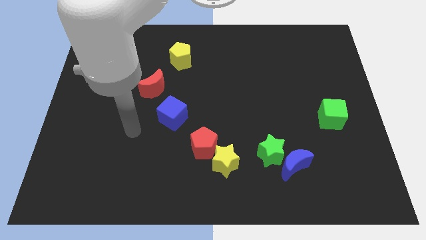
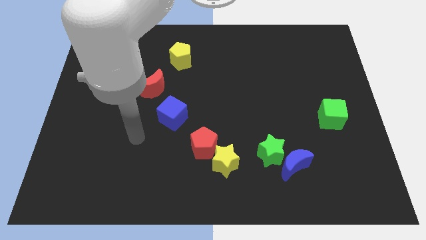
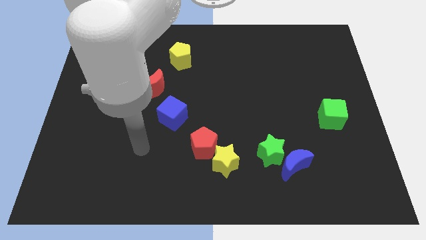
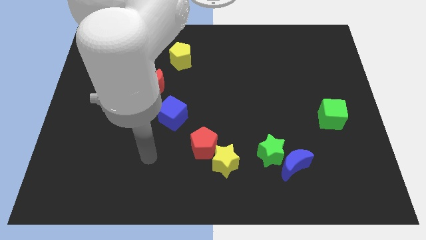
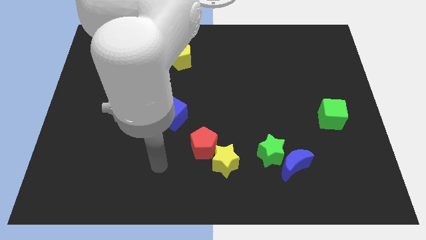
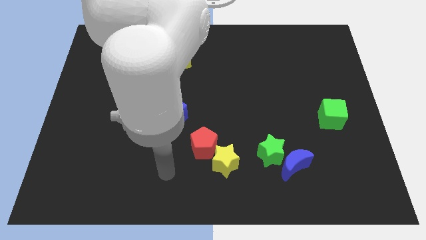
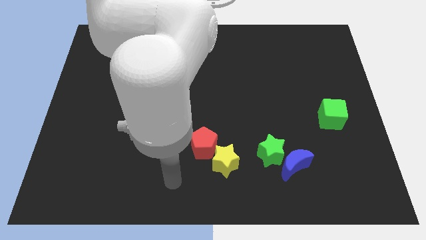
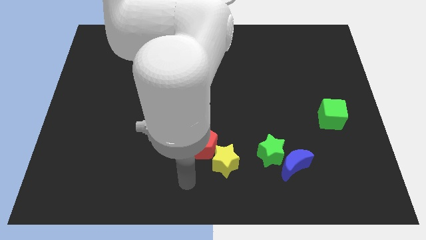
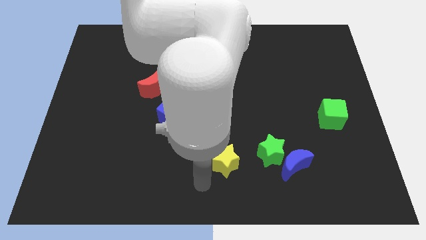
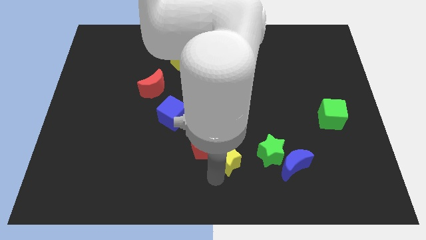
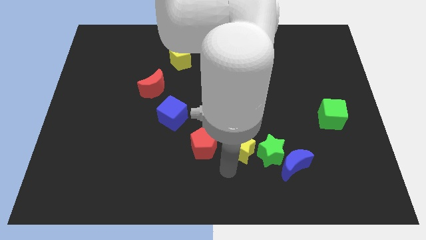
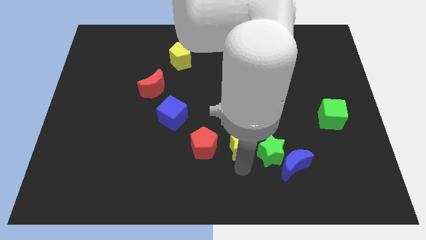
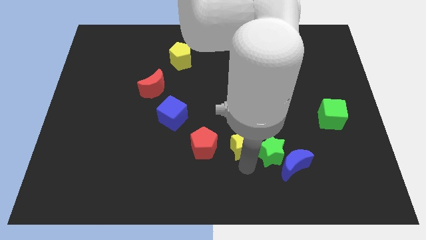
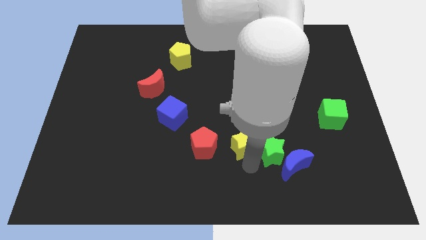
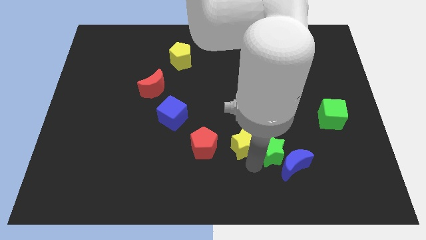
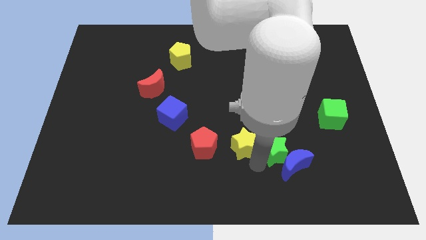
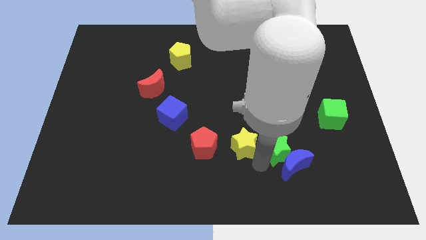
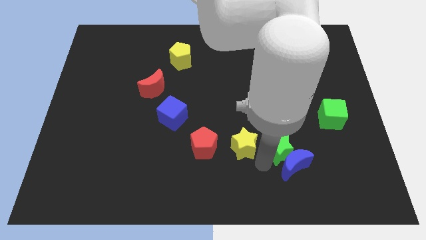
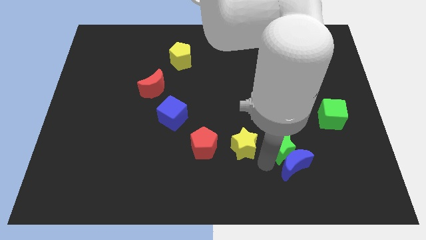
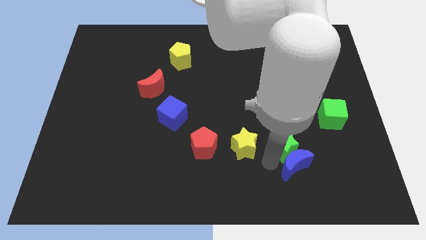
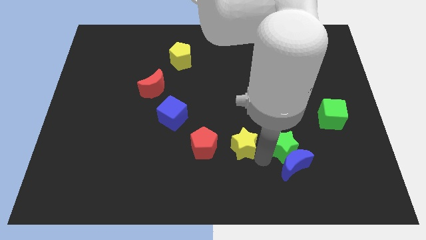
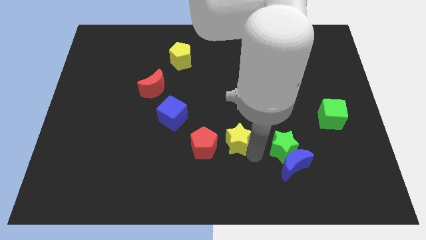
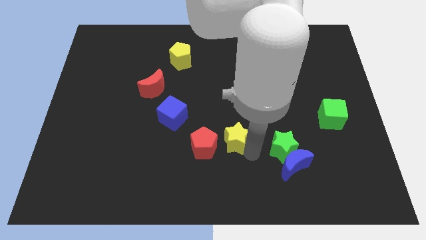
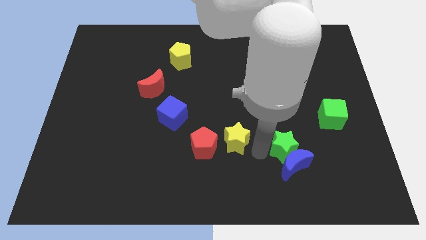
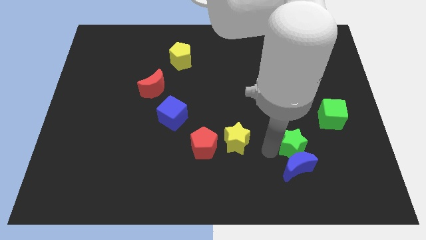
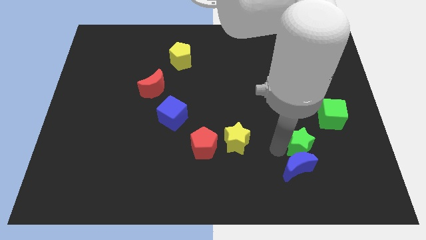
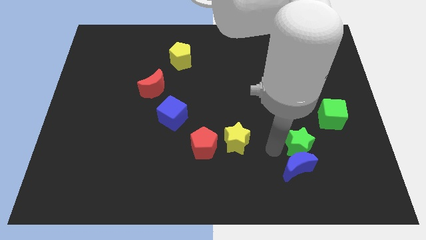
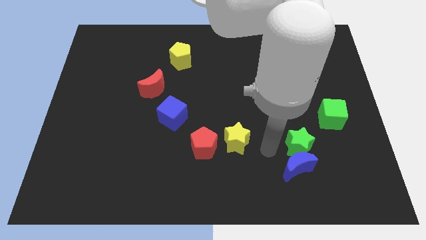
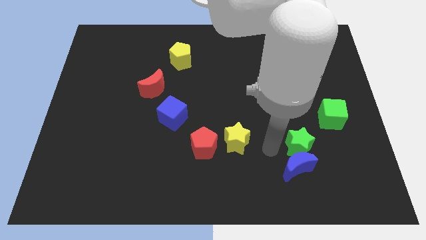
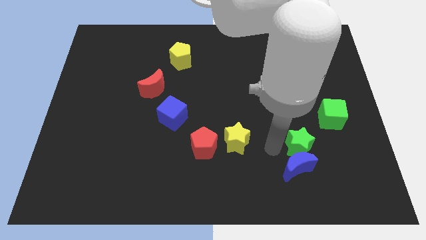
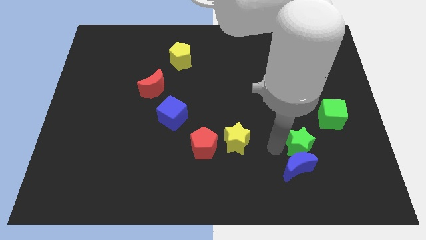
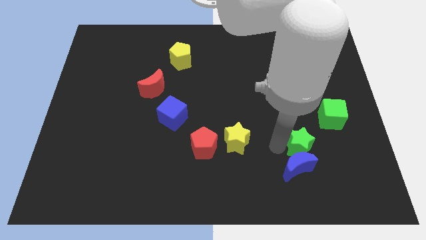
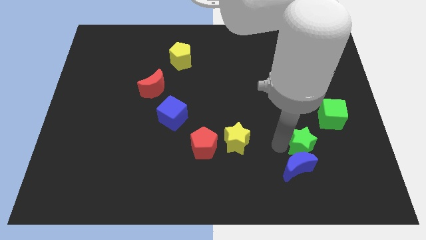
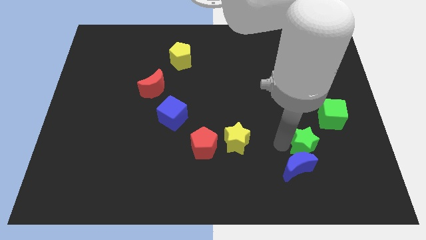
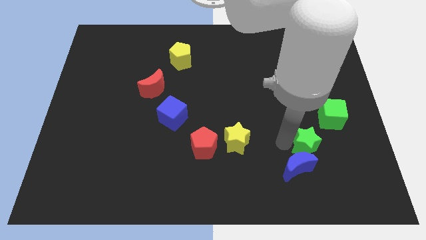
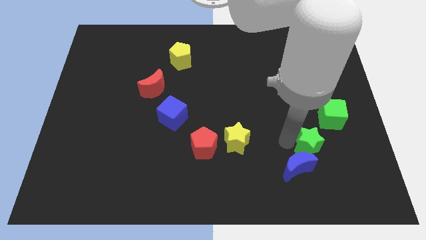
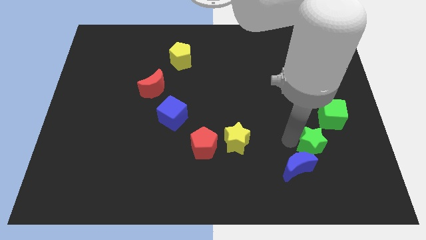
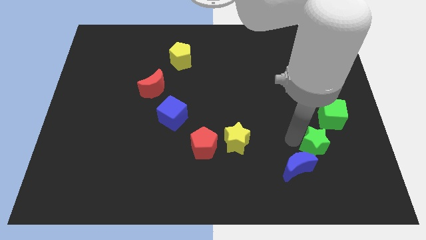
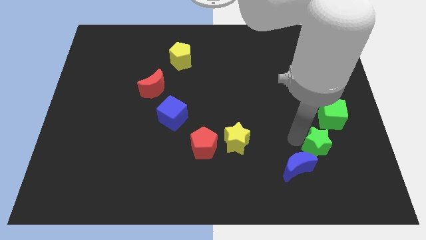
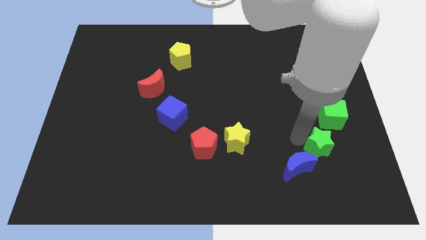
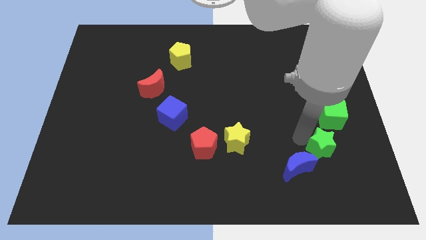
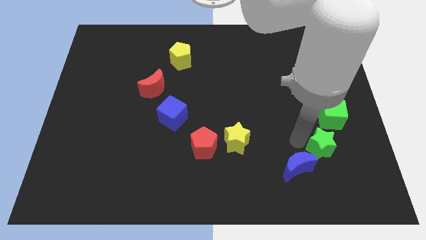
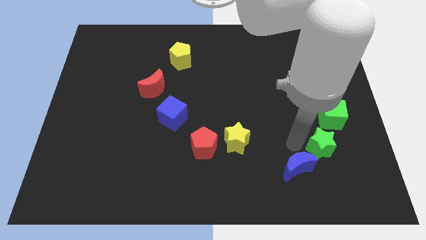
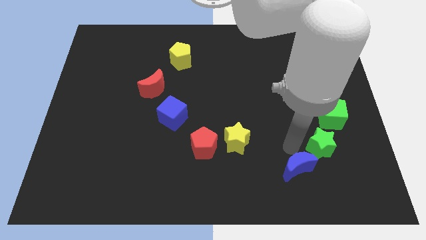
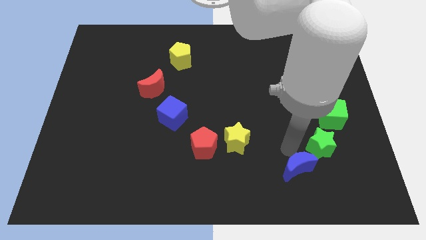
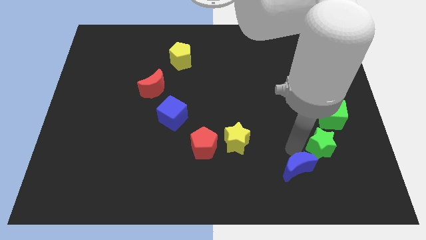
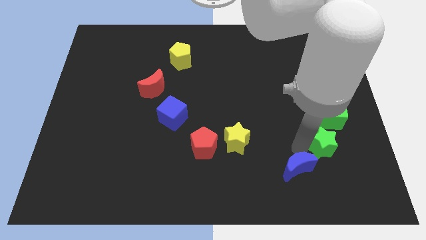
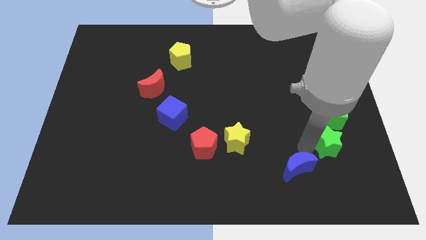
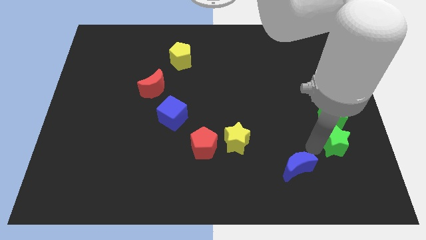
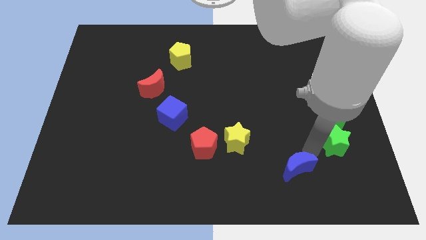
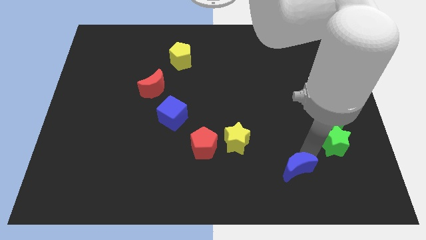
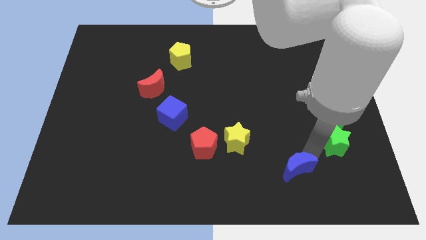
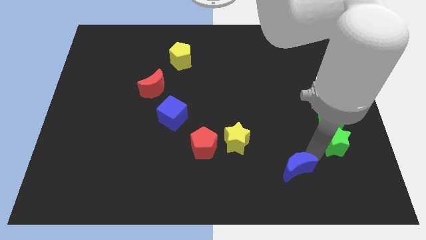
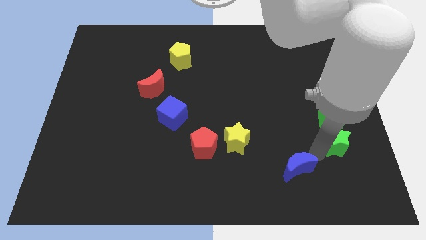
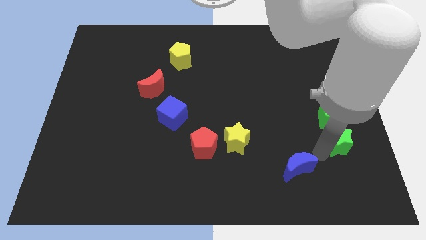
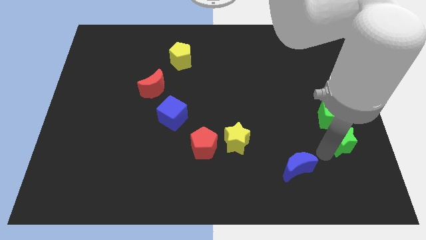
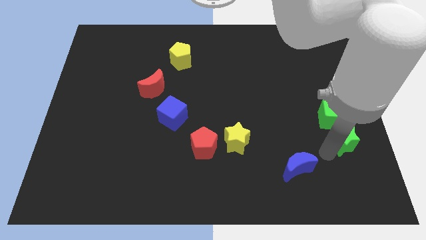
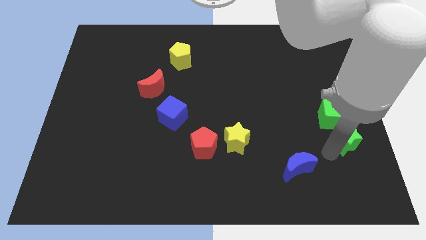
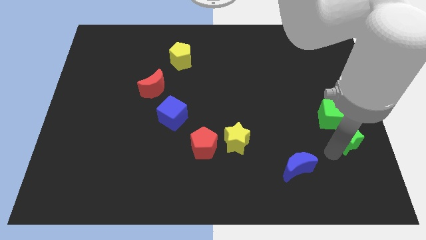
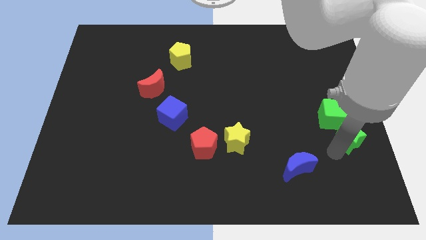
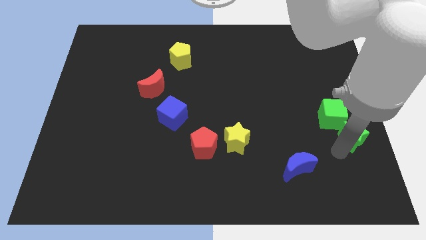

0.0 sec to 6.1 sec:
move the green star to the right side of the board

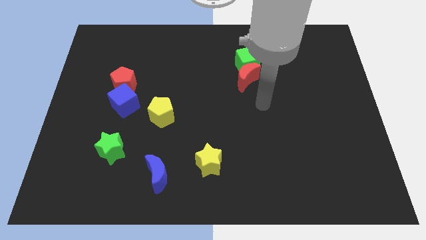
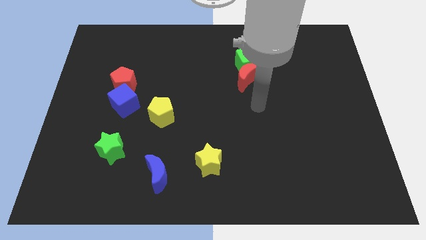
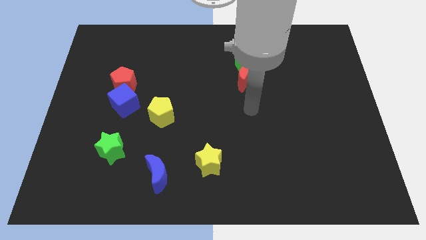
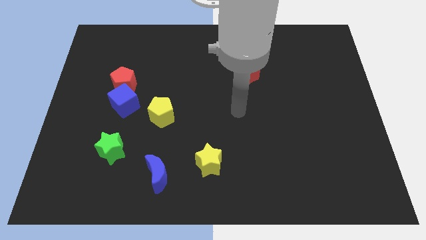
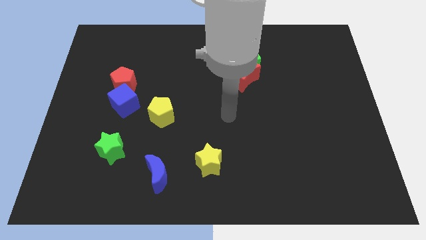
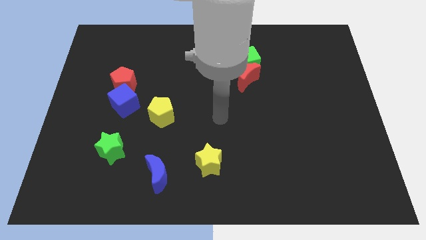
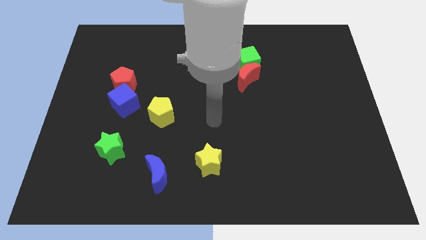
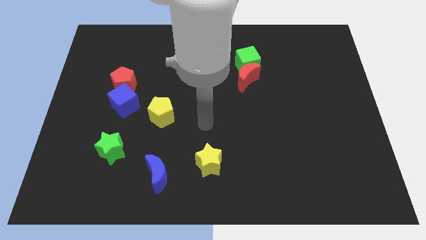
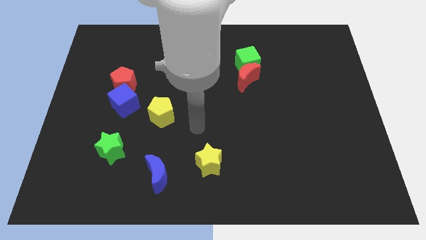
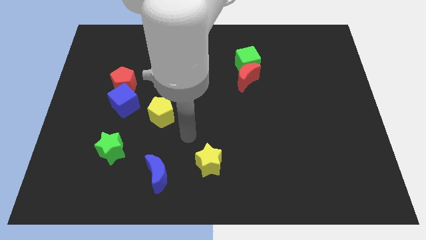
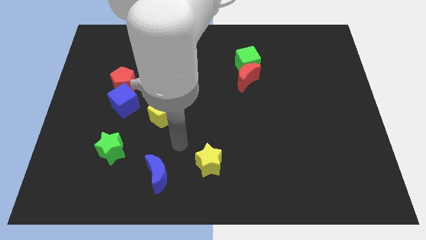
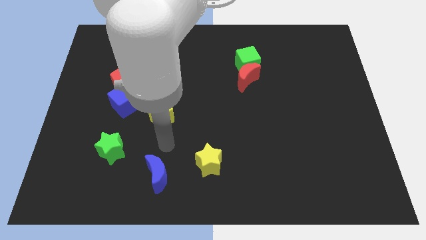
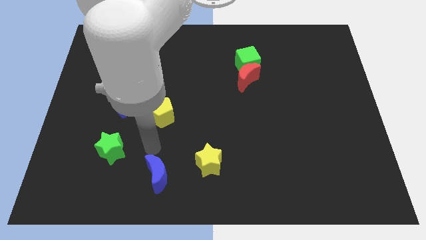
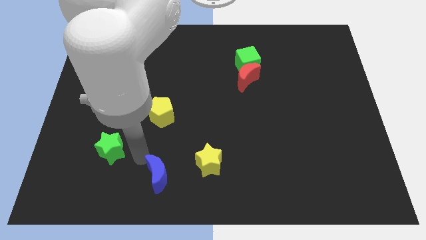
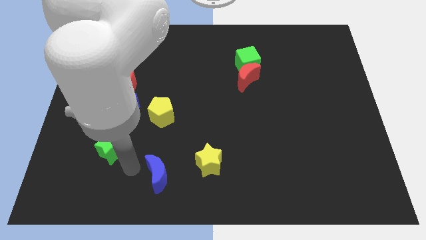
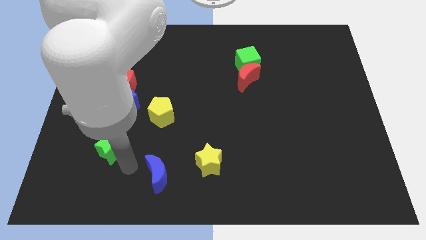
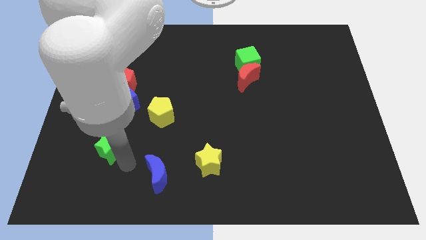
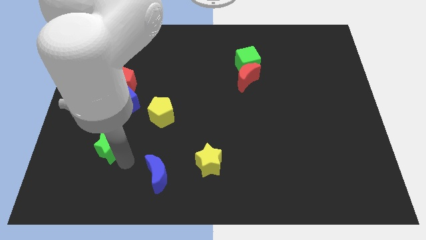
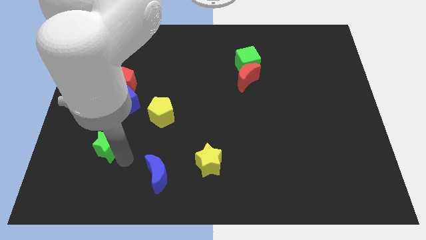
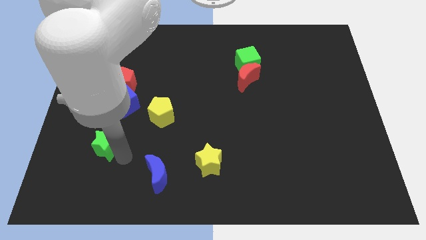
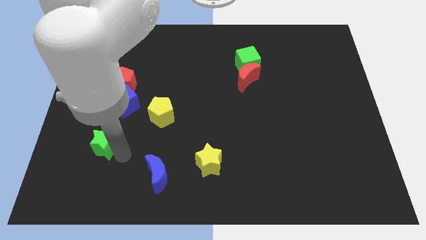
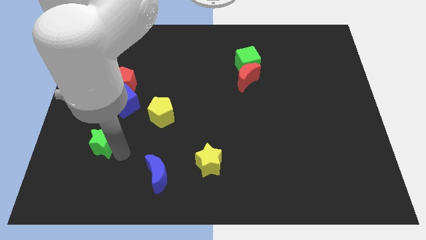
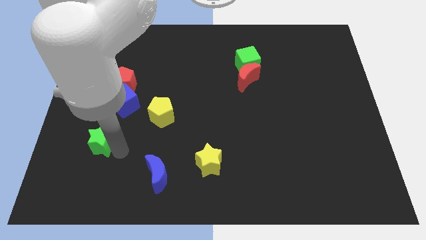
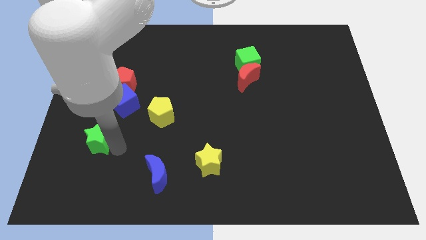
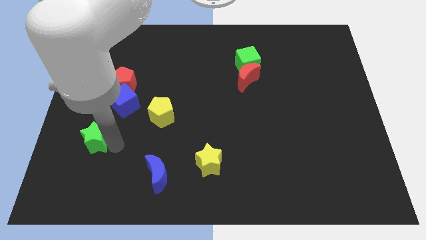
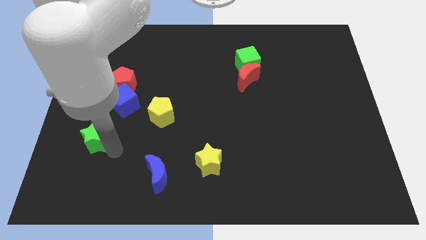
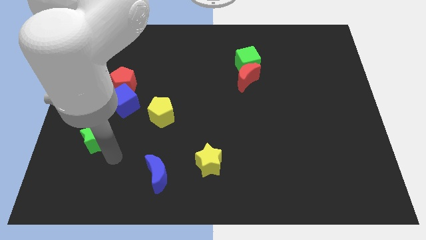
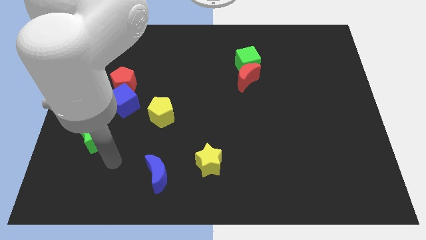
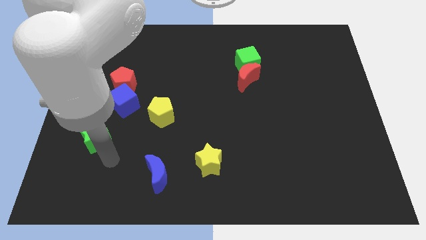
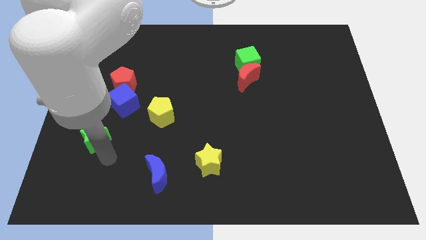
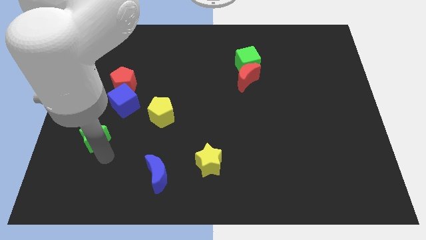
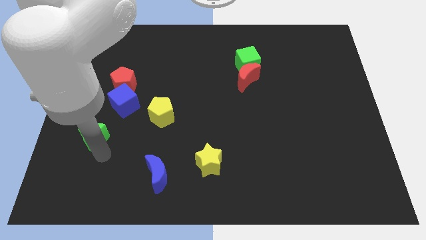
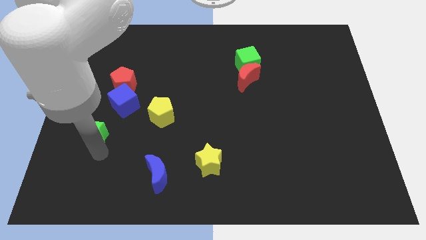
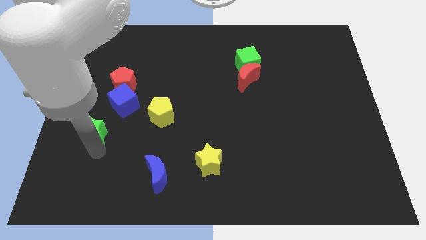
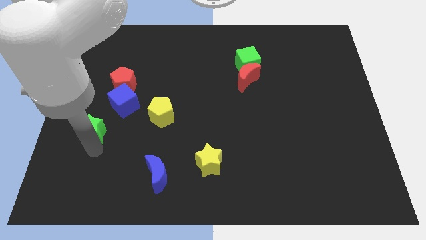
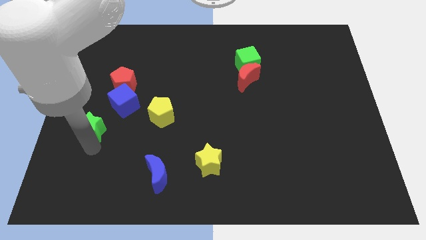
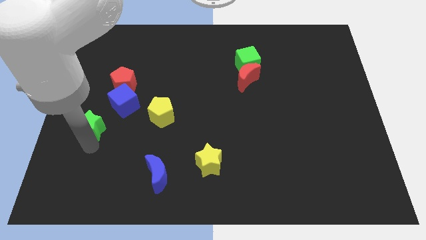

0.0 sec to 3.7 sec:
move the green star to the left side
